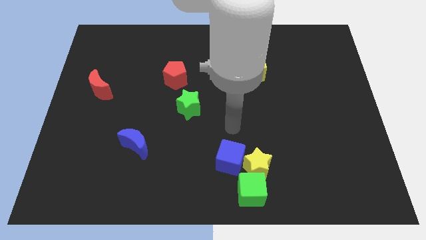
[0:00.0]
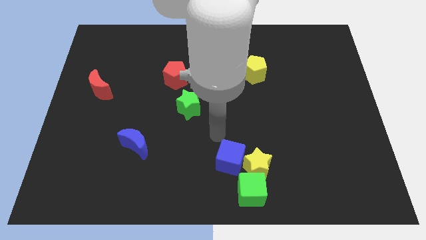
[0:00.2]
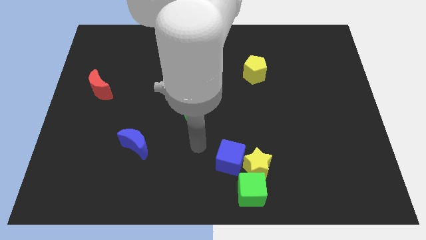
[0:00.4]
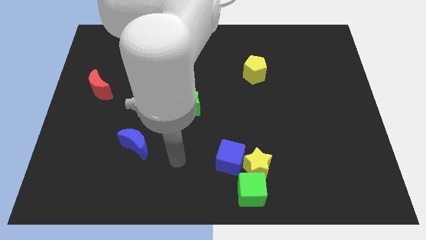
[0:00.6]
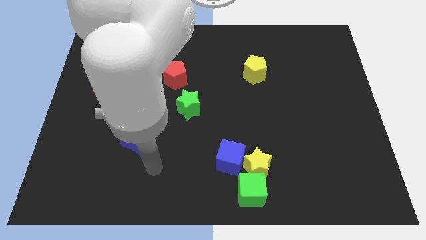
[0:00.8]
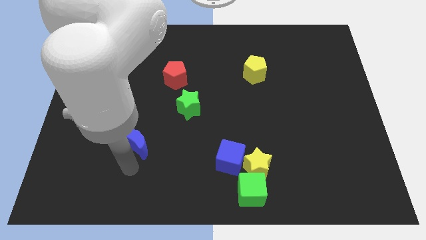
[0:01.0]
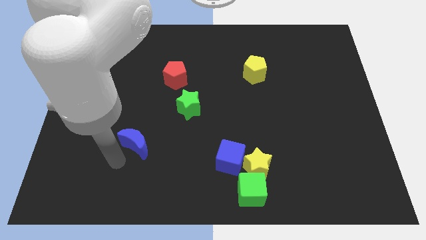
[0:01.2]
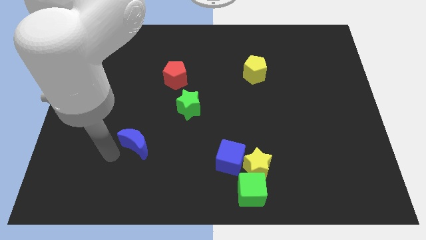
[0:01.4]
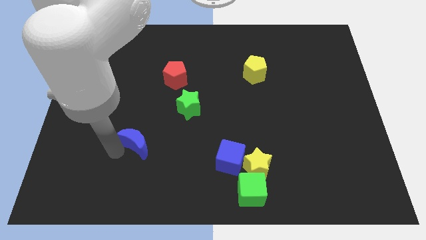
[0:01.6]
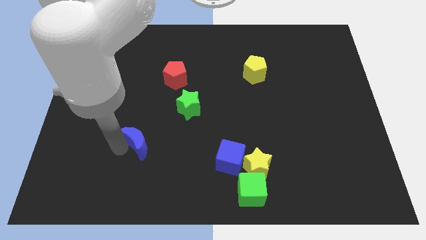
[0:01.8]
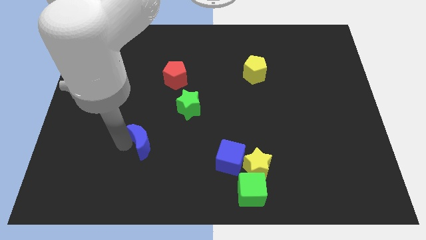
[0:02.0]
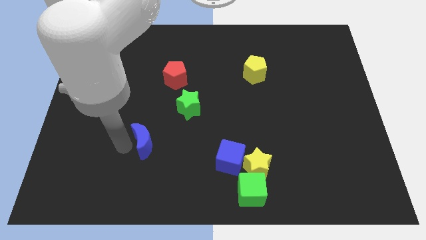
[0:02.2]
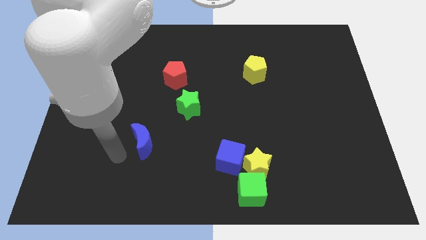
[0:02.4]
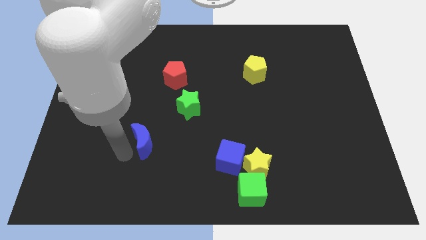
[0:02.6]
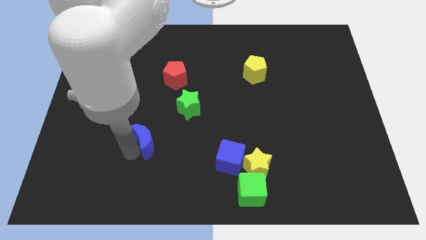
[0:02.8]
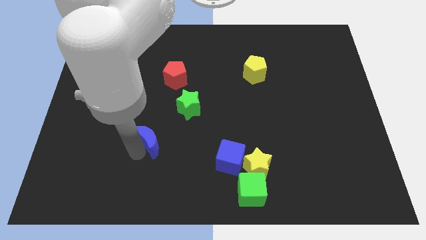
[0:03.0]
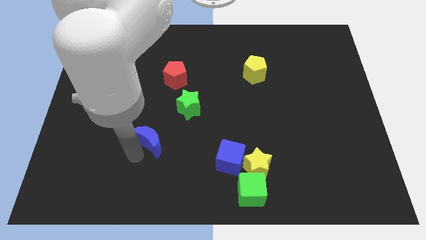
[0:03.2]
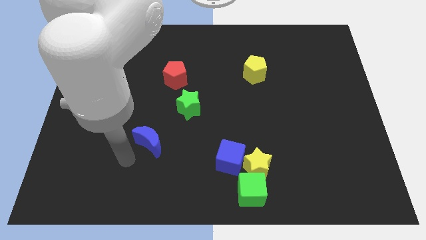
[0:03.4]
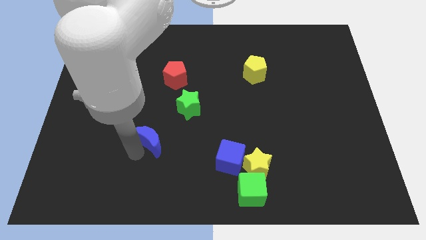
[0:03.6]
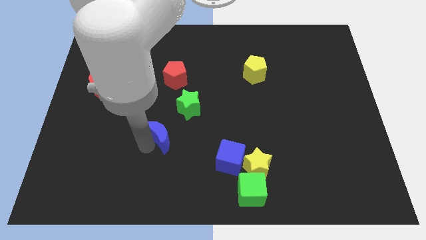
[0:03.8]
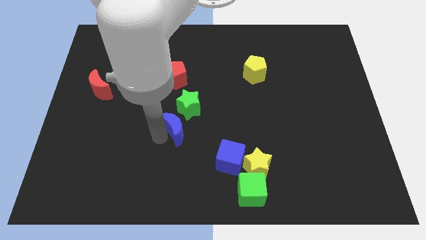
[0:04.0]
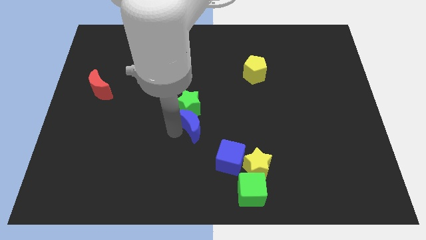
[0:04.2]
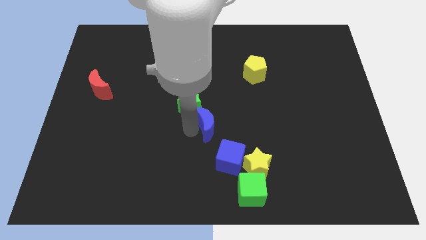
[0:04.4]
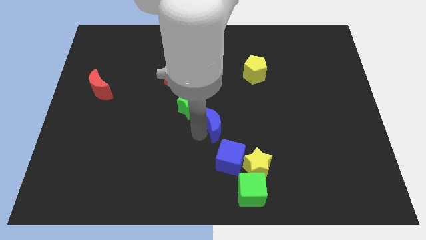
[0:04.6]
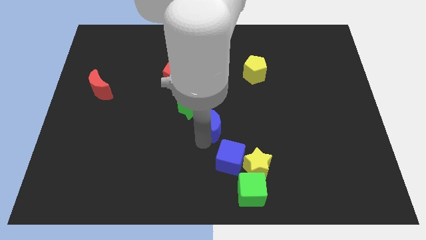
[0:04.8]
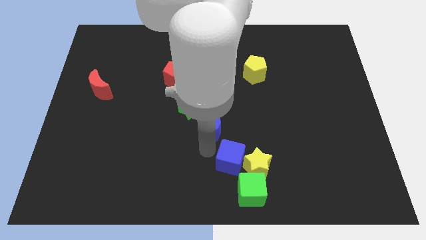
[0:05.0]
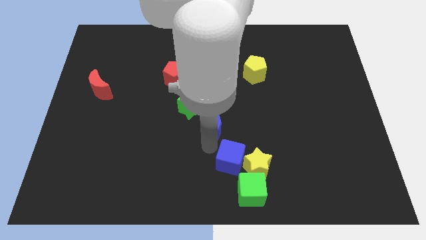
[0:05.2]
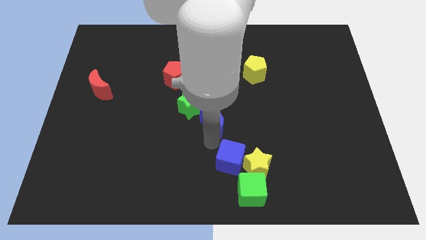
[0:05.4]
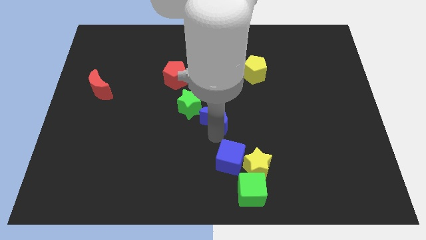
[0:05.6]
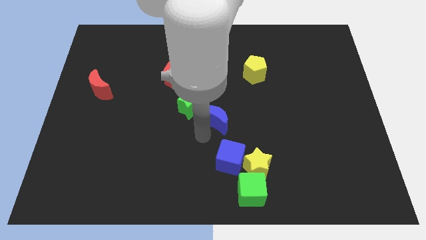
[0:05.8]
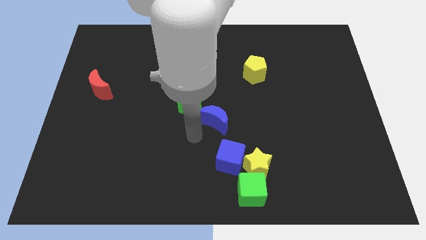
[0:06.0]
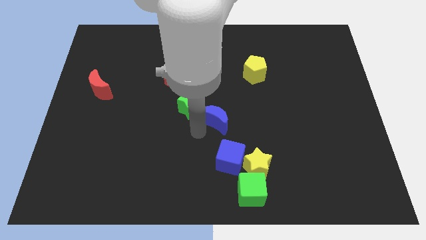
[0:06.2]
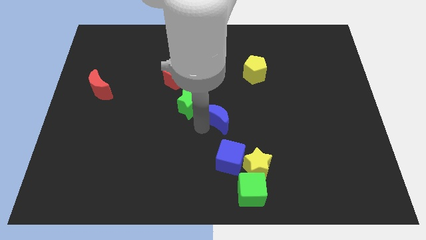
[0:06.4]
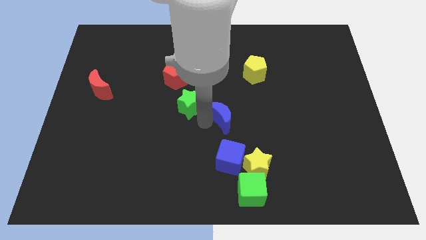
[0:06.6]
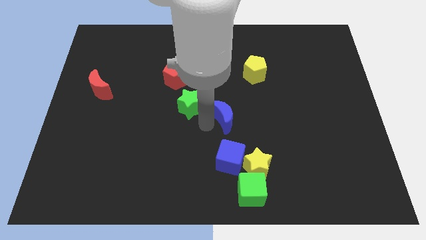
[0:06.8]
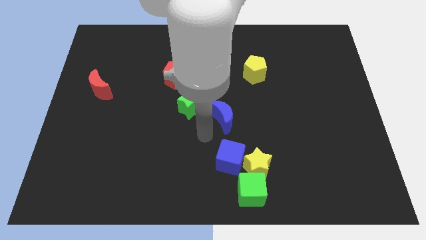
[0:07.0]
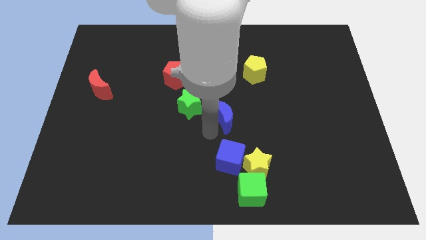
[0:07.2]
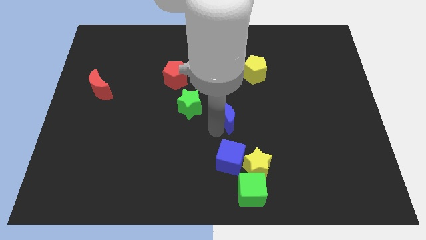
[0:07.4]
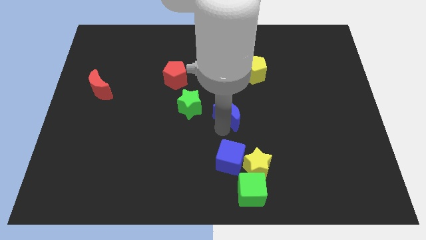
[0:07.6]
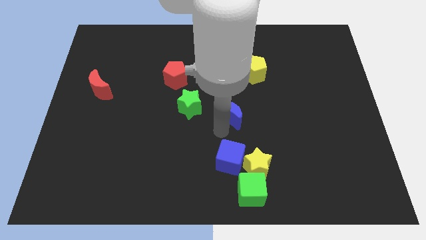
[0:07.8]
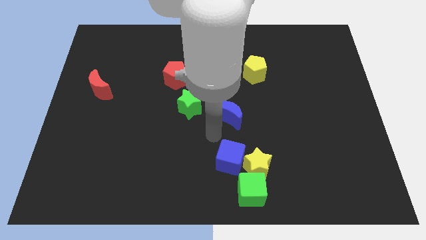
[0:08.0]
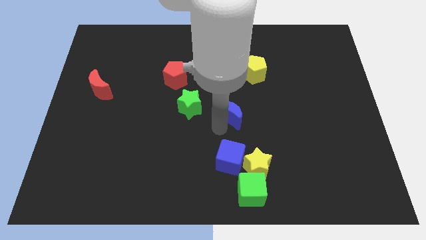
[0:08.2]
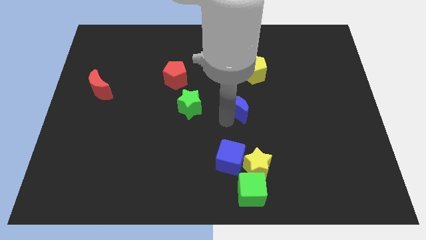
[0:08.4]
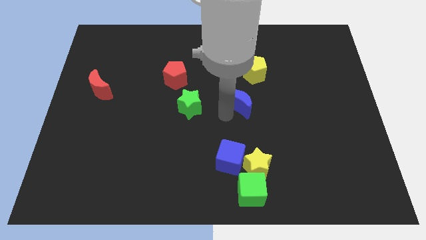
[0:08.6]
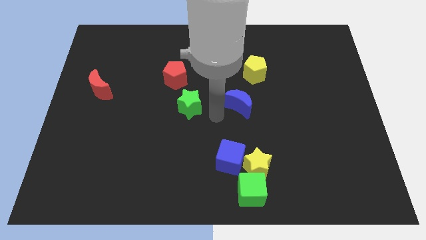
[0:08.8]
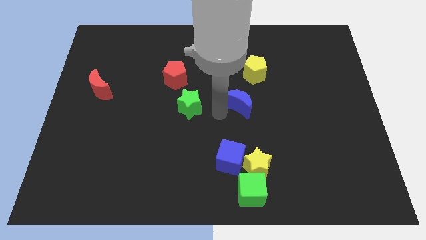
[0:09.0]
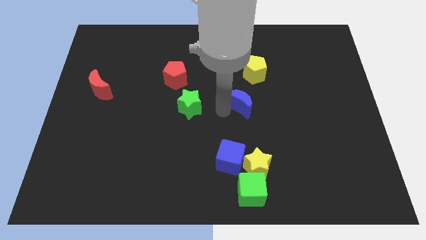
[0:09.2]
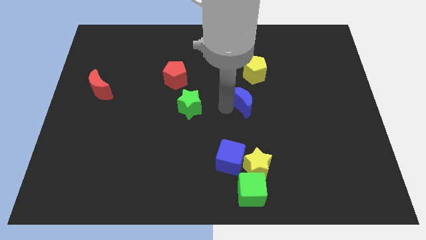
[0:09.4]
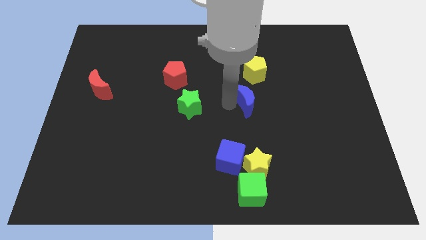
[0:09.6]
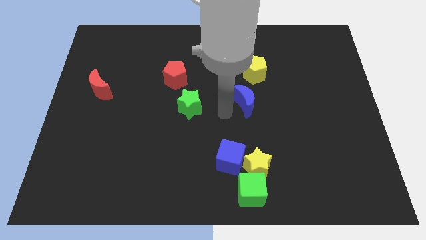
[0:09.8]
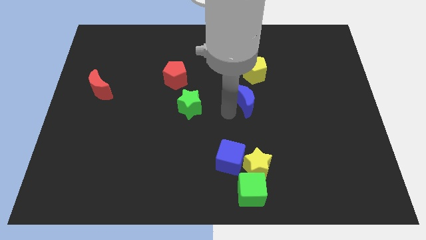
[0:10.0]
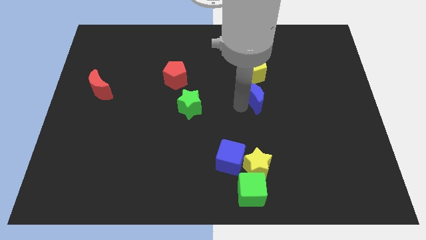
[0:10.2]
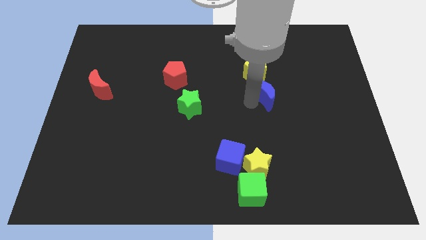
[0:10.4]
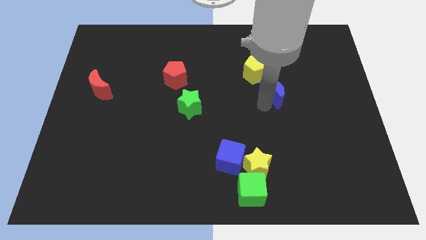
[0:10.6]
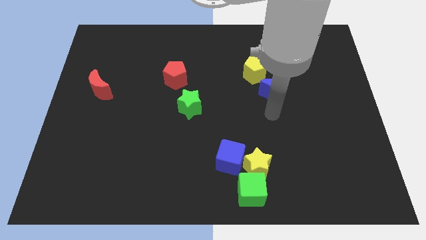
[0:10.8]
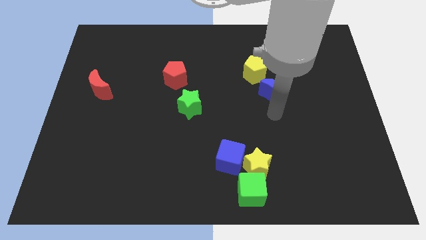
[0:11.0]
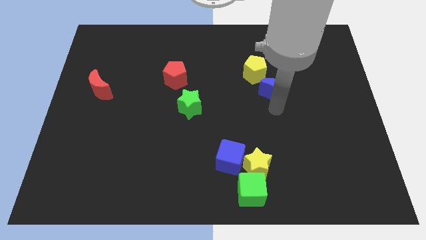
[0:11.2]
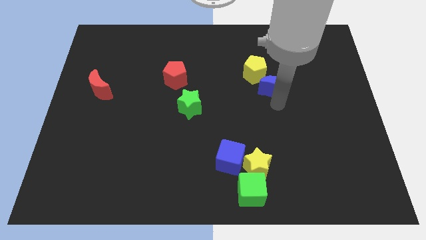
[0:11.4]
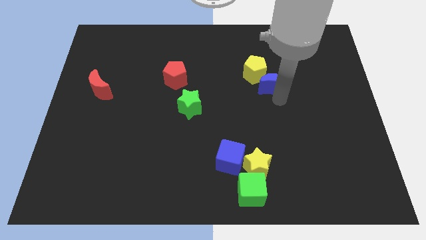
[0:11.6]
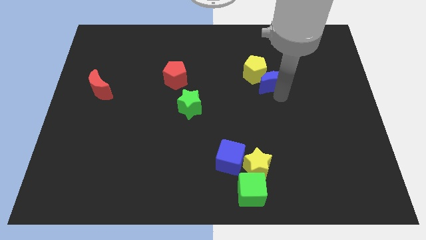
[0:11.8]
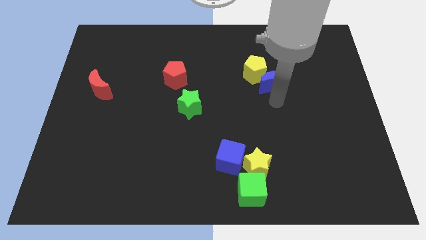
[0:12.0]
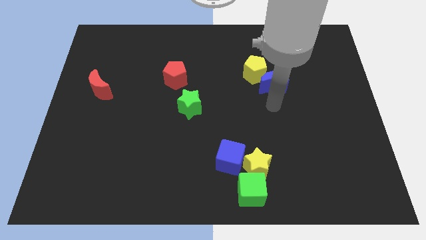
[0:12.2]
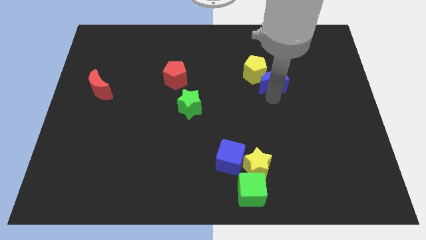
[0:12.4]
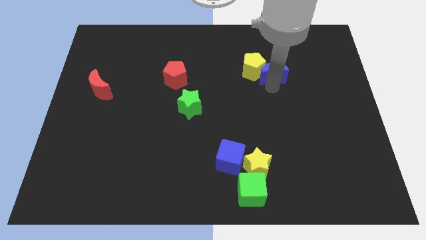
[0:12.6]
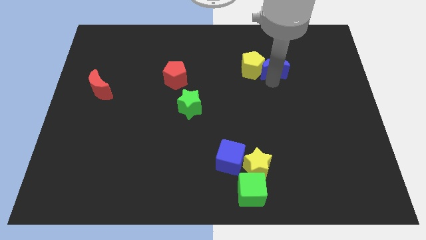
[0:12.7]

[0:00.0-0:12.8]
put the blue moon to the top right side of the yellow pentagon

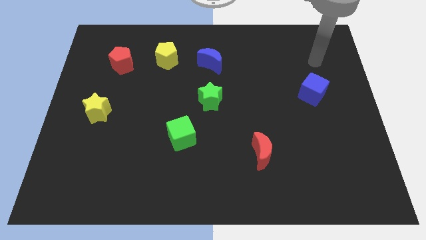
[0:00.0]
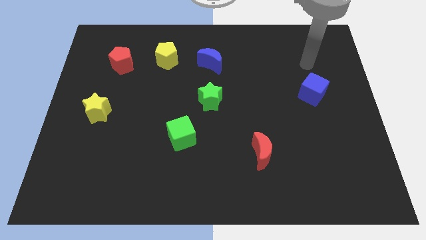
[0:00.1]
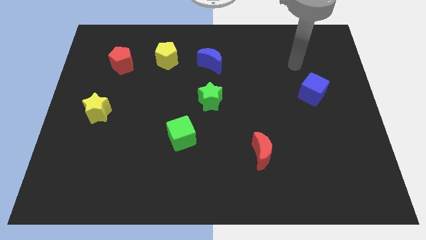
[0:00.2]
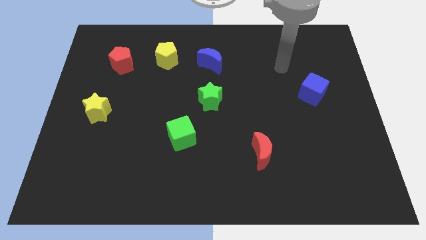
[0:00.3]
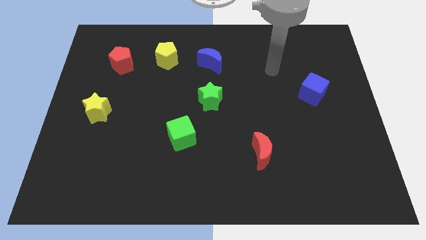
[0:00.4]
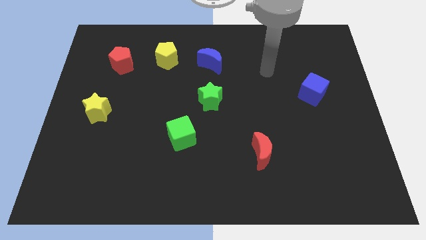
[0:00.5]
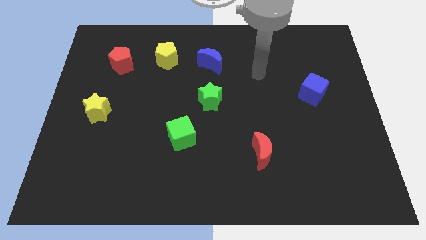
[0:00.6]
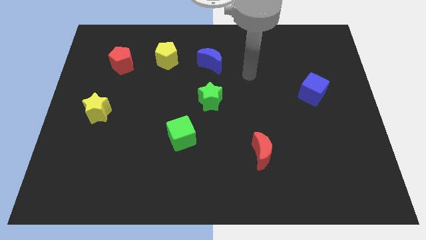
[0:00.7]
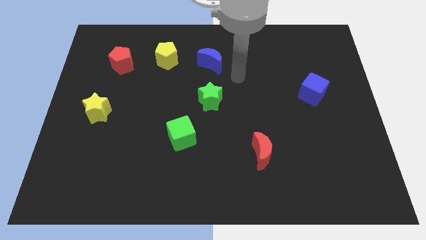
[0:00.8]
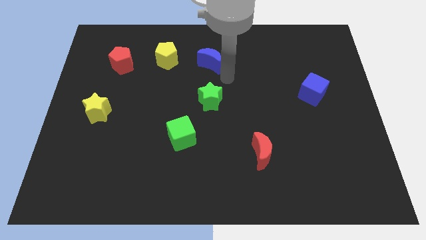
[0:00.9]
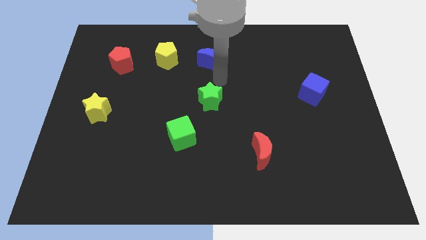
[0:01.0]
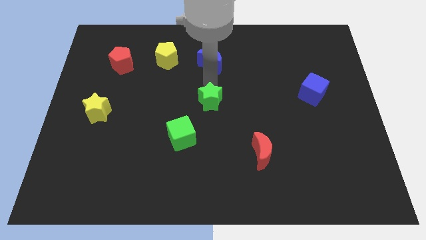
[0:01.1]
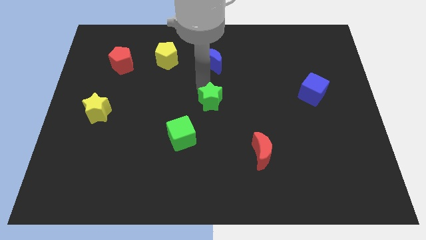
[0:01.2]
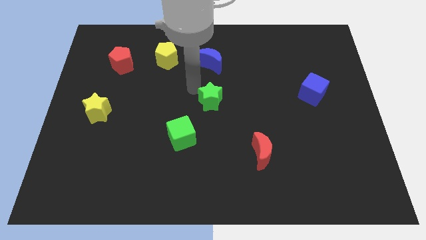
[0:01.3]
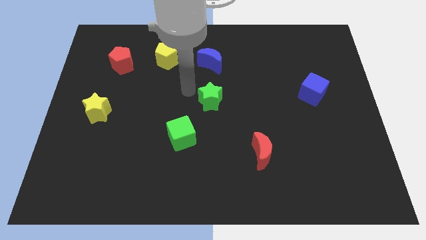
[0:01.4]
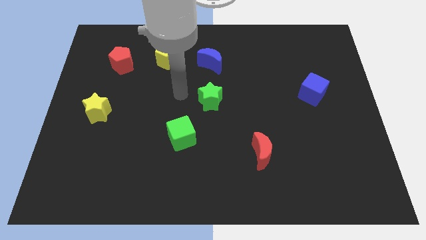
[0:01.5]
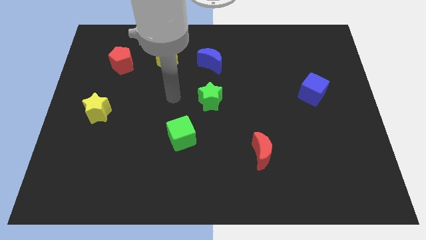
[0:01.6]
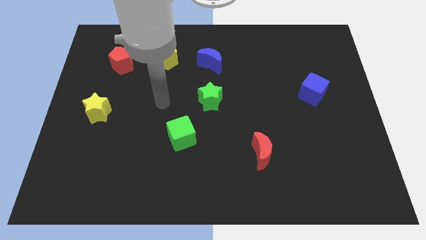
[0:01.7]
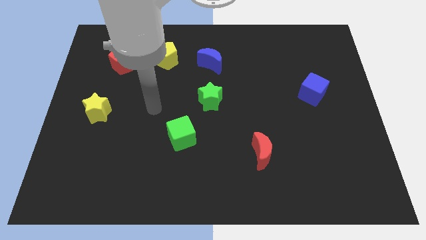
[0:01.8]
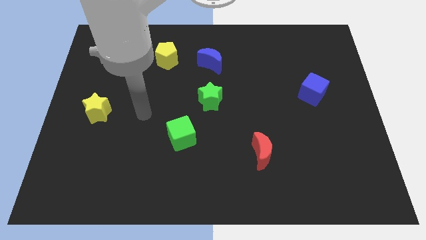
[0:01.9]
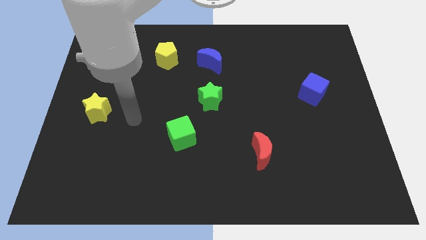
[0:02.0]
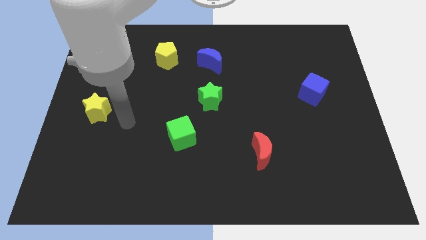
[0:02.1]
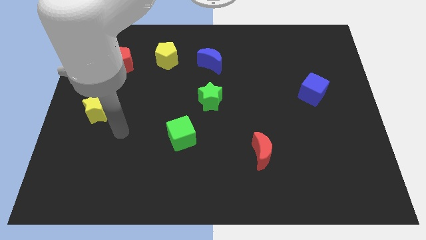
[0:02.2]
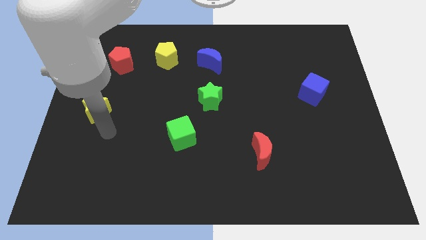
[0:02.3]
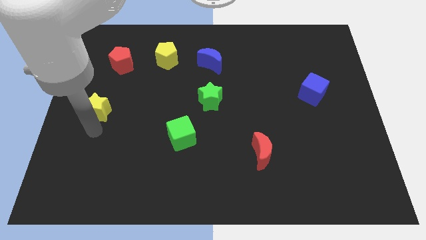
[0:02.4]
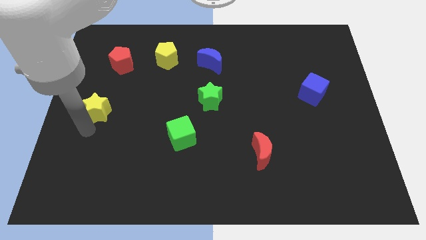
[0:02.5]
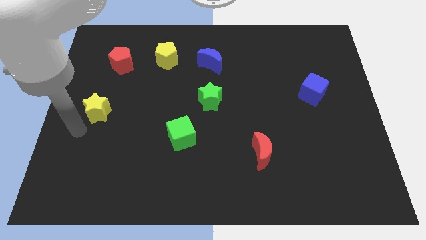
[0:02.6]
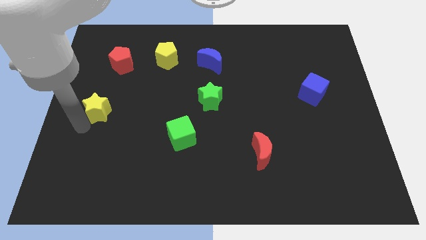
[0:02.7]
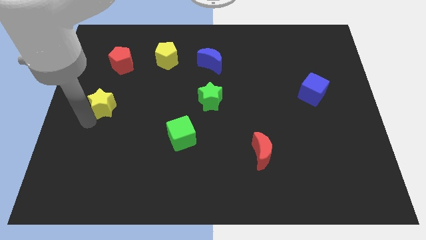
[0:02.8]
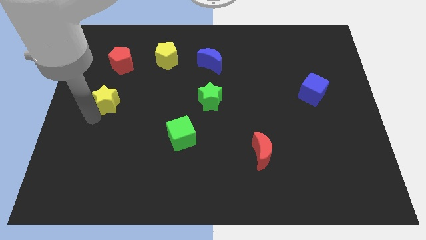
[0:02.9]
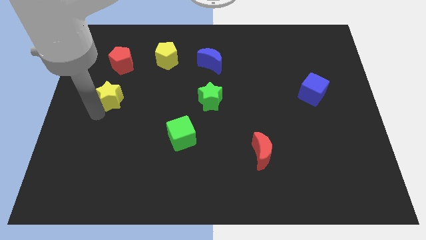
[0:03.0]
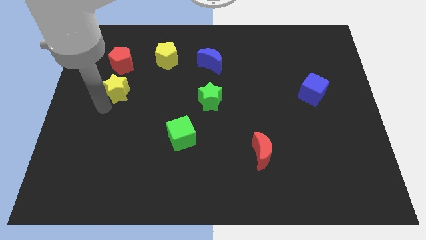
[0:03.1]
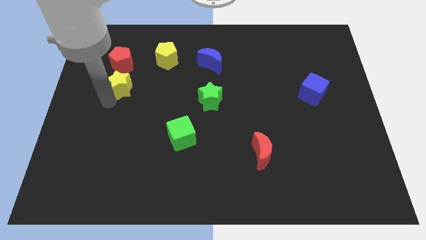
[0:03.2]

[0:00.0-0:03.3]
slide the yellow star to the bottom right of the red pentagon
